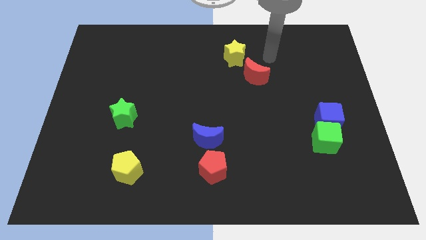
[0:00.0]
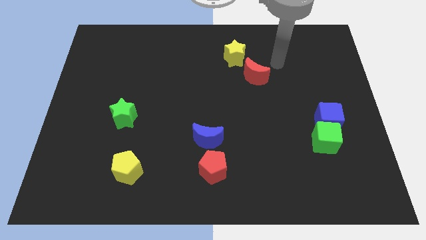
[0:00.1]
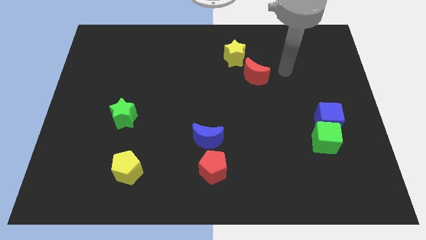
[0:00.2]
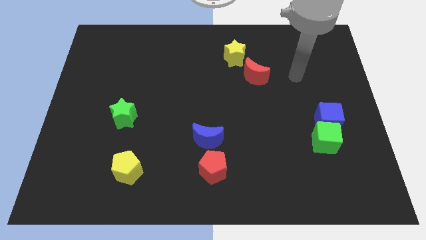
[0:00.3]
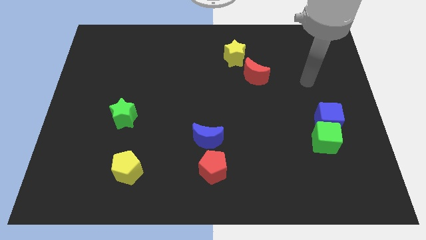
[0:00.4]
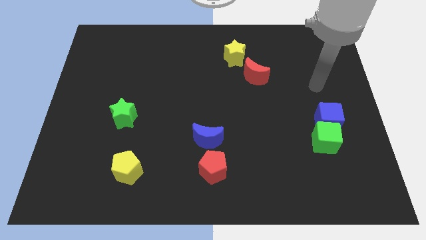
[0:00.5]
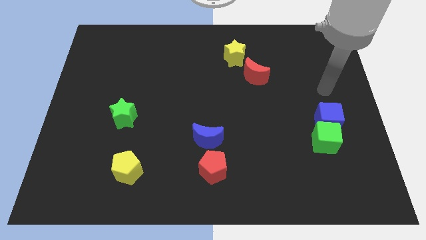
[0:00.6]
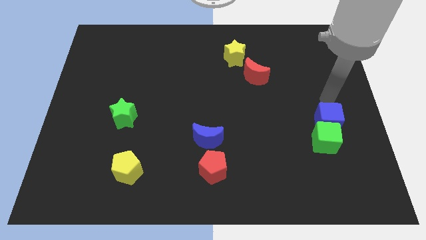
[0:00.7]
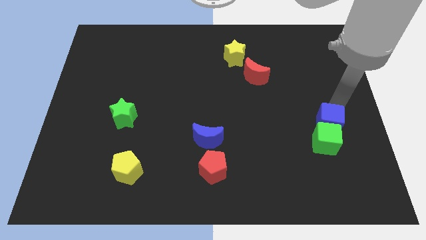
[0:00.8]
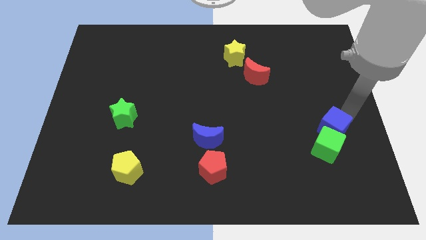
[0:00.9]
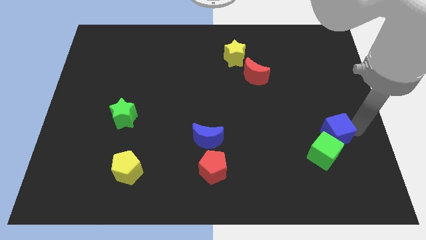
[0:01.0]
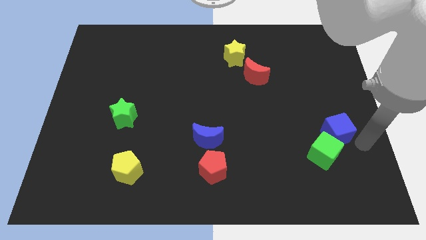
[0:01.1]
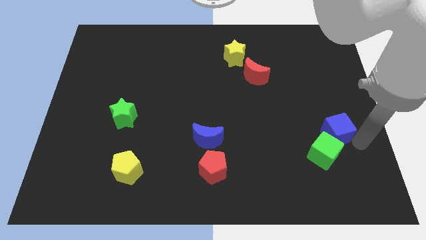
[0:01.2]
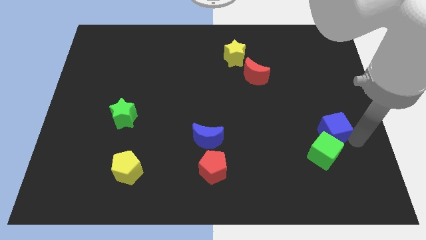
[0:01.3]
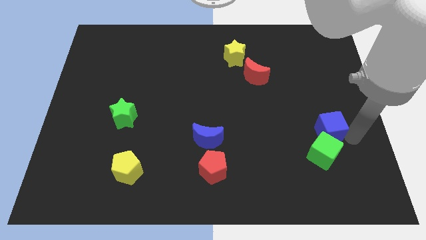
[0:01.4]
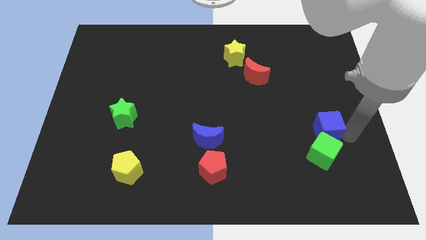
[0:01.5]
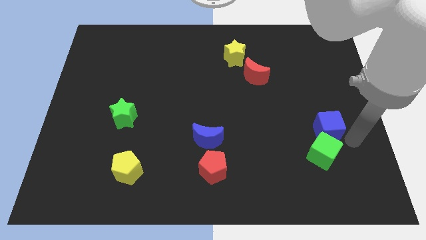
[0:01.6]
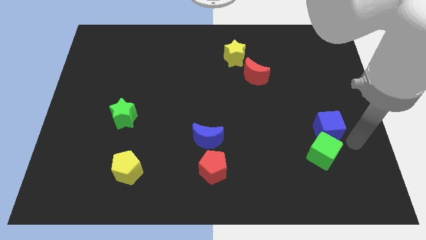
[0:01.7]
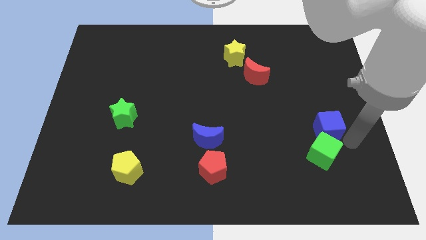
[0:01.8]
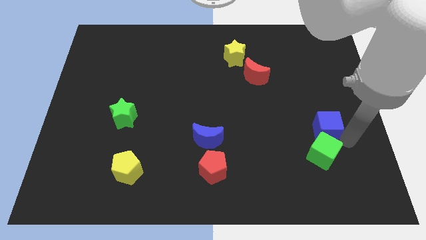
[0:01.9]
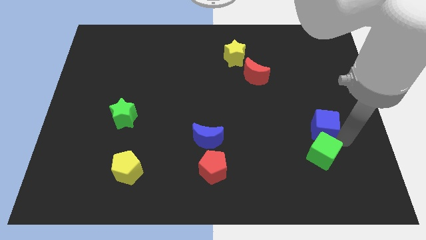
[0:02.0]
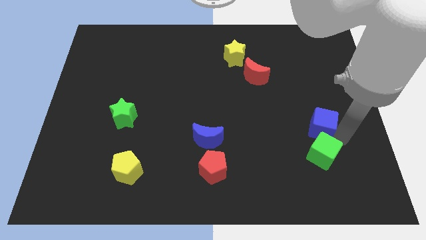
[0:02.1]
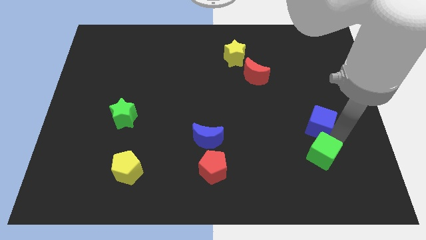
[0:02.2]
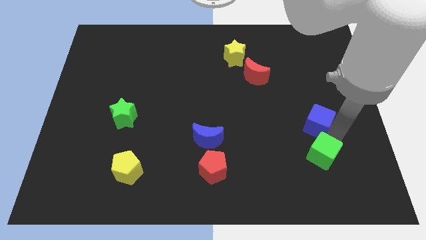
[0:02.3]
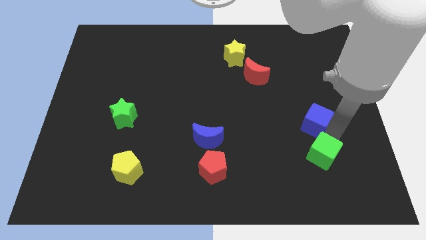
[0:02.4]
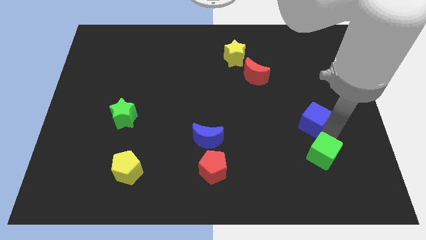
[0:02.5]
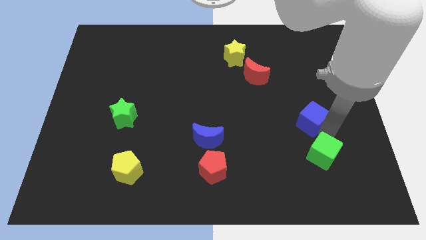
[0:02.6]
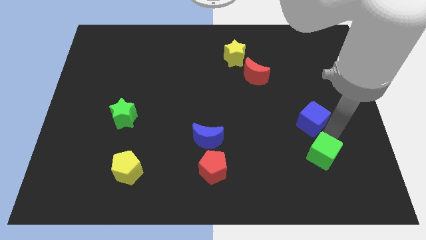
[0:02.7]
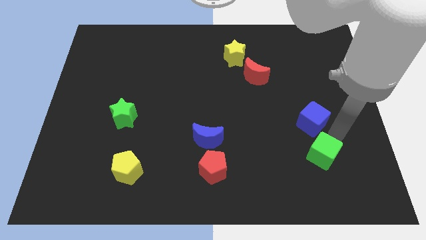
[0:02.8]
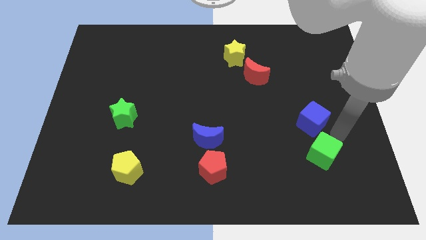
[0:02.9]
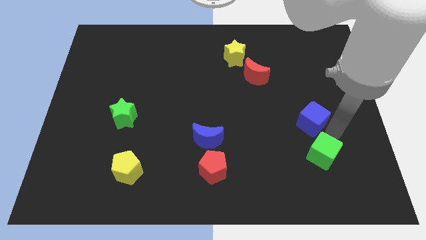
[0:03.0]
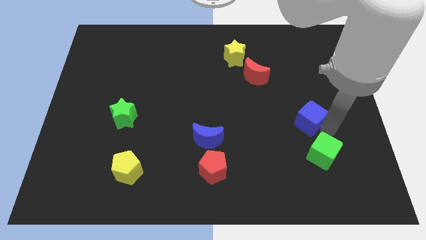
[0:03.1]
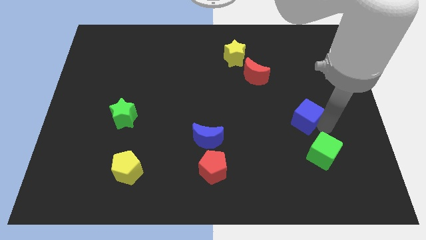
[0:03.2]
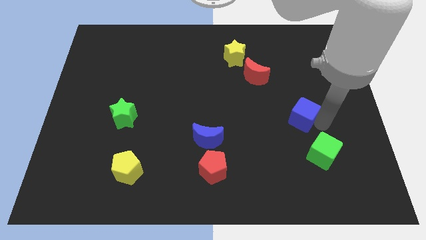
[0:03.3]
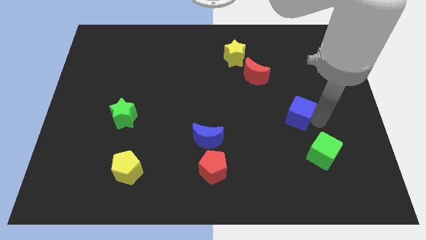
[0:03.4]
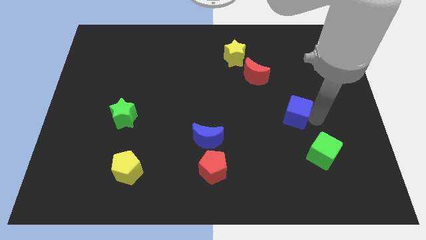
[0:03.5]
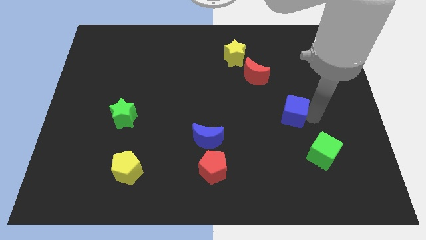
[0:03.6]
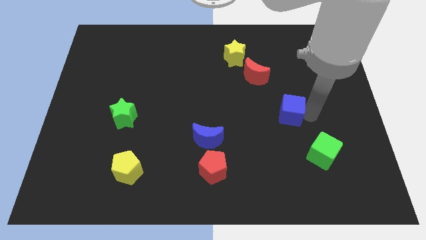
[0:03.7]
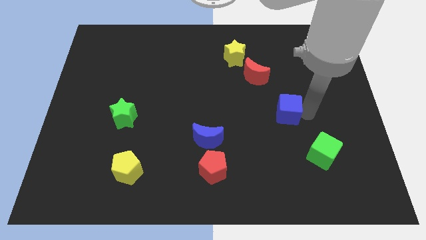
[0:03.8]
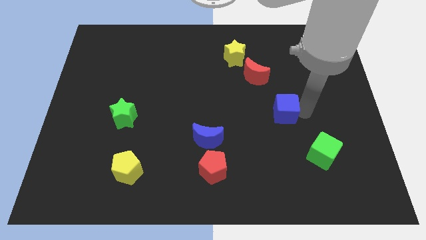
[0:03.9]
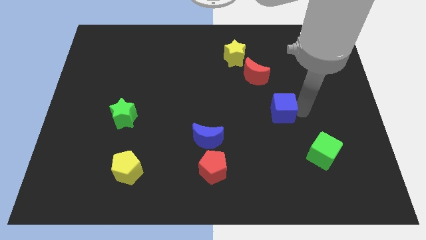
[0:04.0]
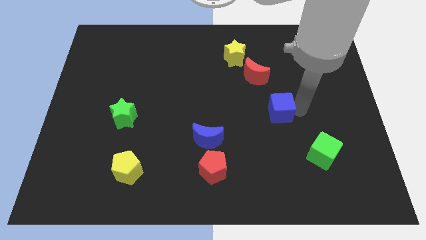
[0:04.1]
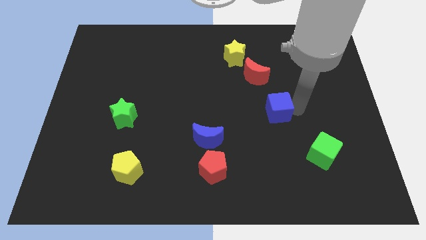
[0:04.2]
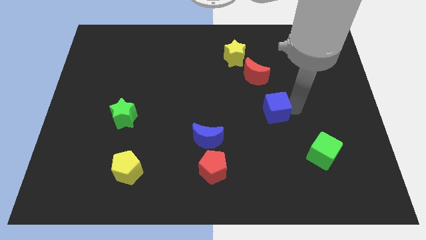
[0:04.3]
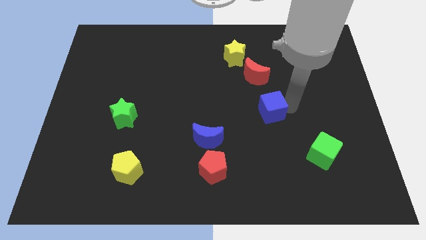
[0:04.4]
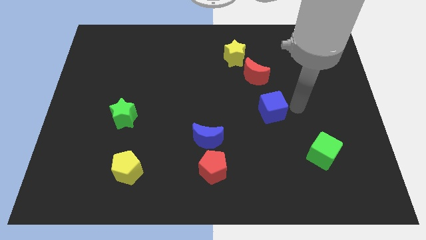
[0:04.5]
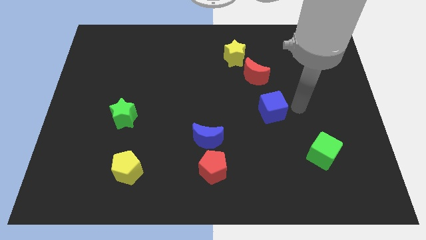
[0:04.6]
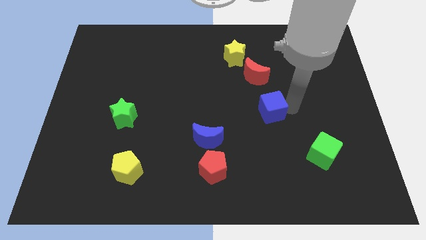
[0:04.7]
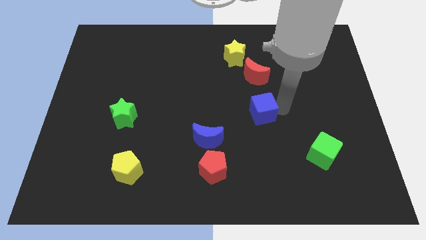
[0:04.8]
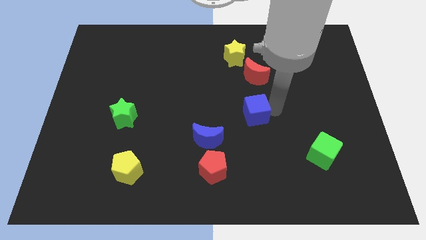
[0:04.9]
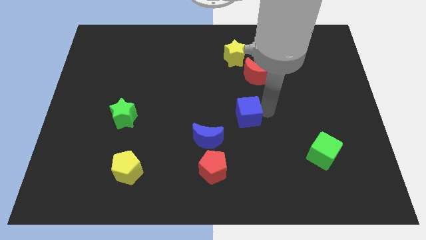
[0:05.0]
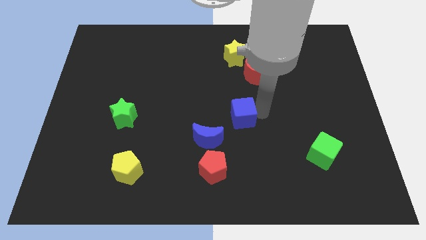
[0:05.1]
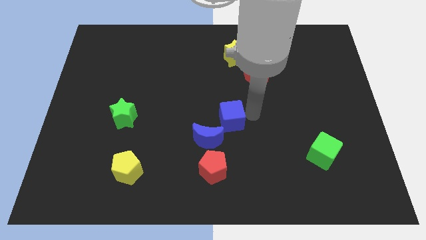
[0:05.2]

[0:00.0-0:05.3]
move the blue cube to the left

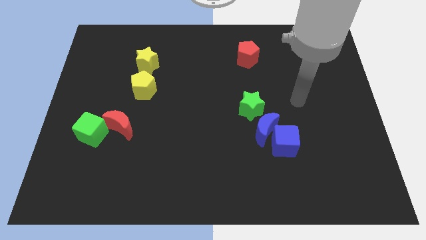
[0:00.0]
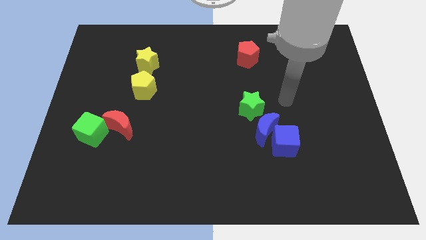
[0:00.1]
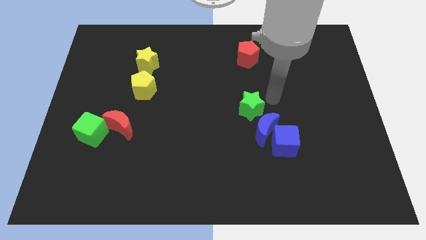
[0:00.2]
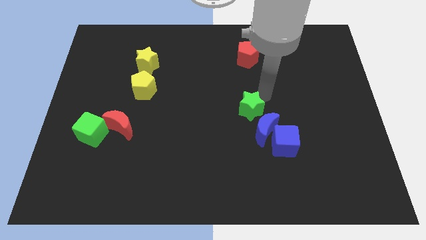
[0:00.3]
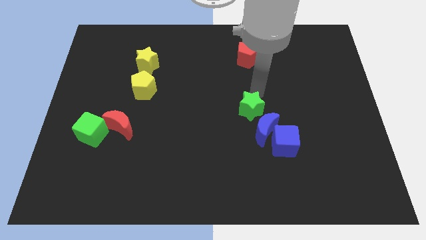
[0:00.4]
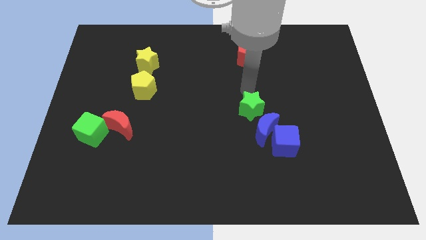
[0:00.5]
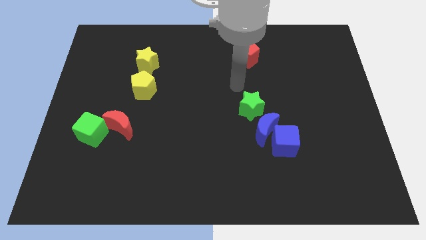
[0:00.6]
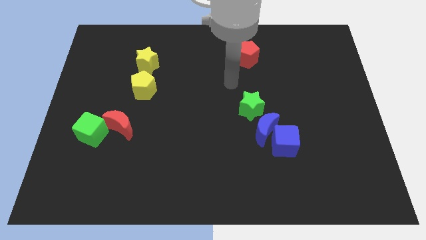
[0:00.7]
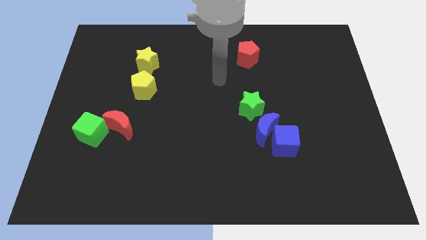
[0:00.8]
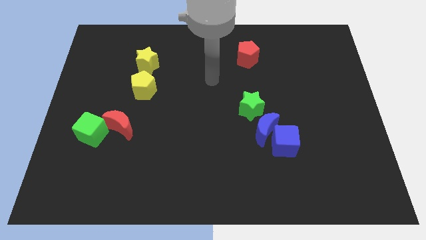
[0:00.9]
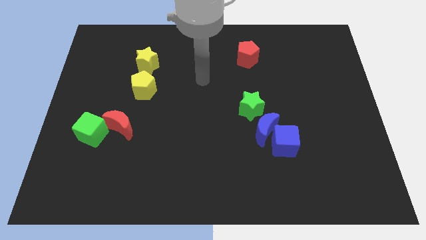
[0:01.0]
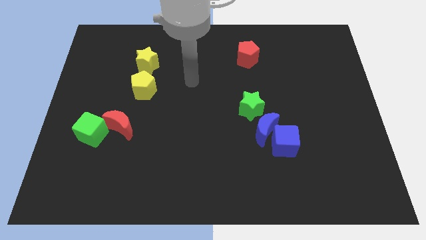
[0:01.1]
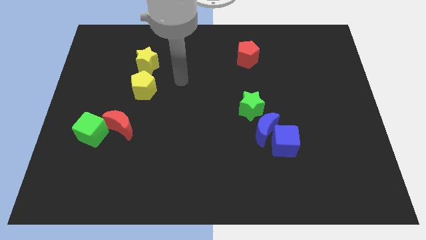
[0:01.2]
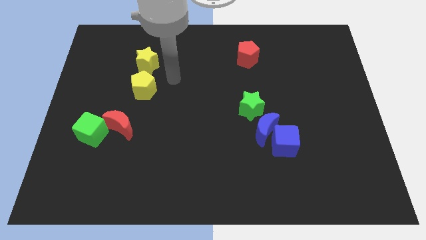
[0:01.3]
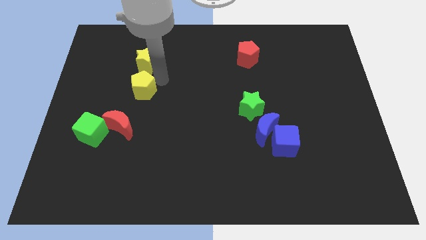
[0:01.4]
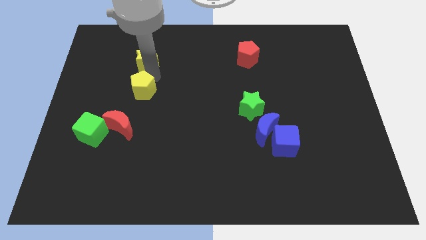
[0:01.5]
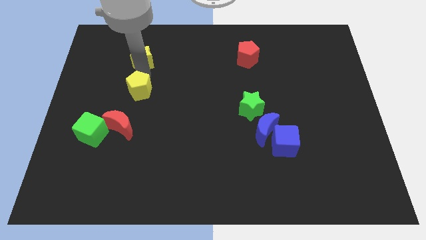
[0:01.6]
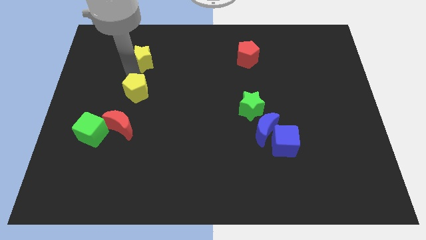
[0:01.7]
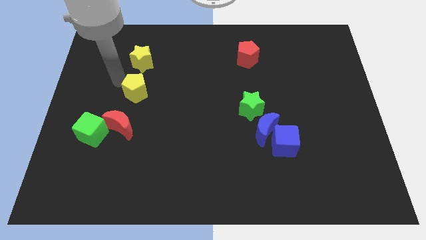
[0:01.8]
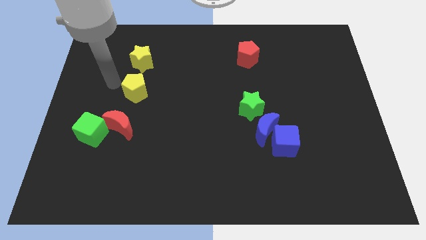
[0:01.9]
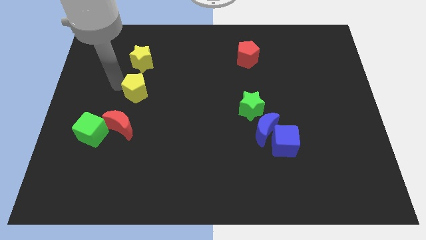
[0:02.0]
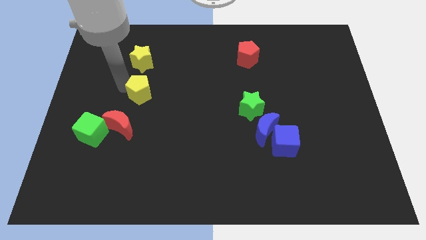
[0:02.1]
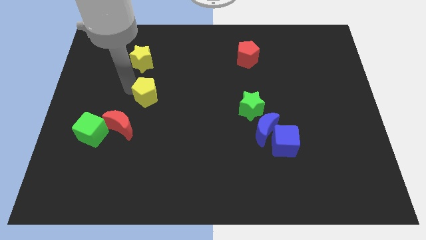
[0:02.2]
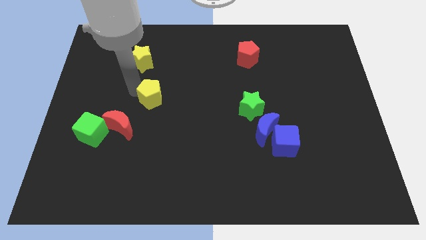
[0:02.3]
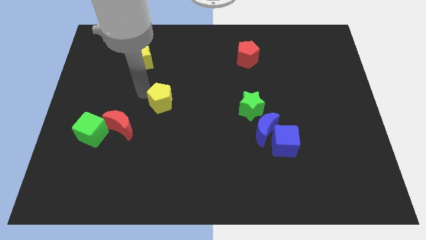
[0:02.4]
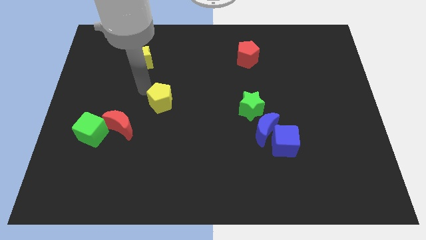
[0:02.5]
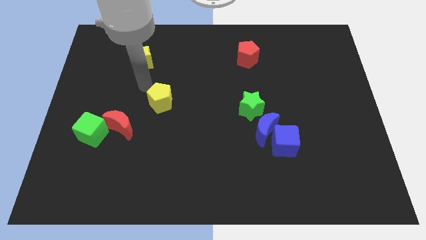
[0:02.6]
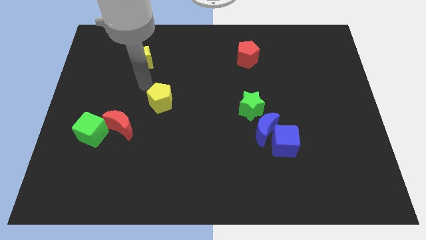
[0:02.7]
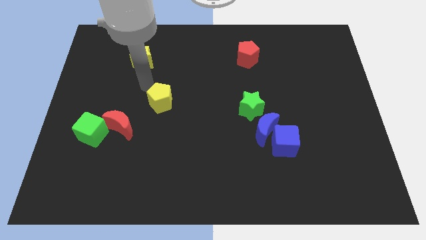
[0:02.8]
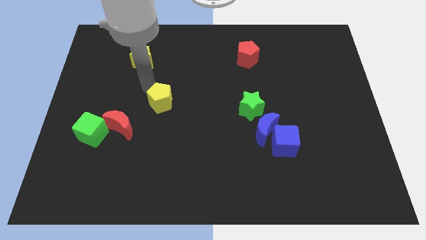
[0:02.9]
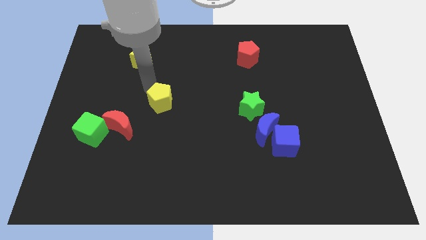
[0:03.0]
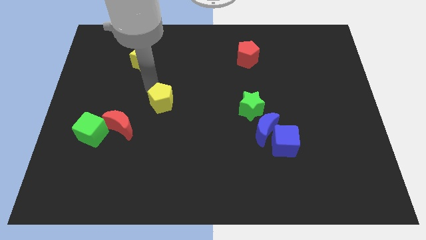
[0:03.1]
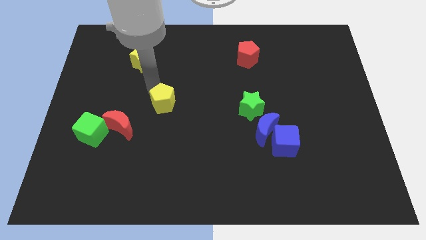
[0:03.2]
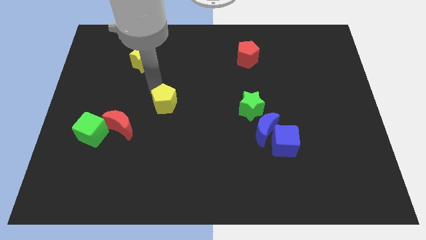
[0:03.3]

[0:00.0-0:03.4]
push the yellow pentagon a little bit diagonally down and right
